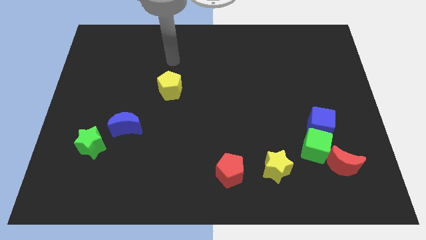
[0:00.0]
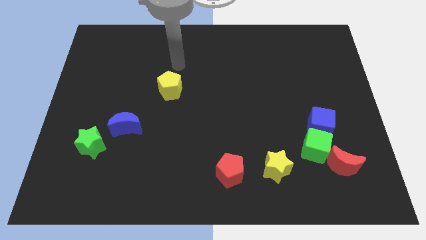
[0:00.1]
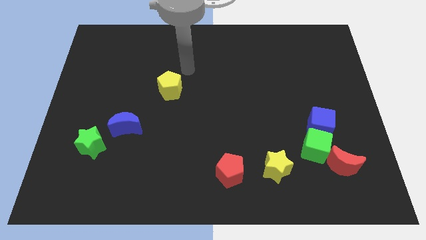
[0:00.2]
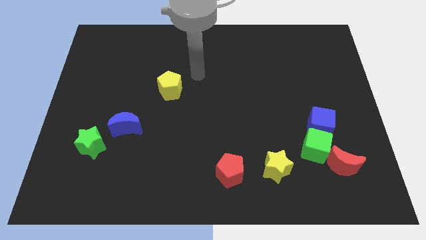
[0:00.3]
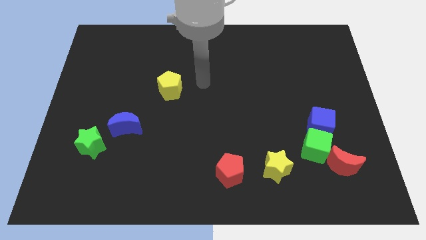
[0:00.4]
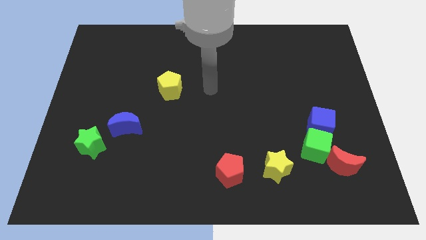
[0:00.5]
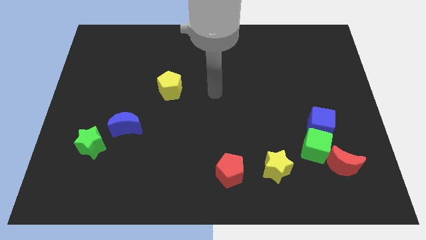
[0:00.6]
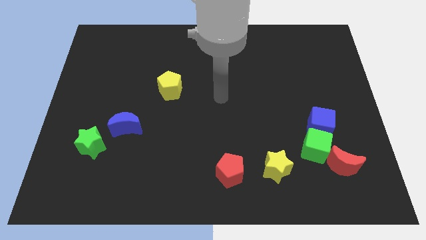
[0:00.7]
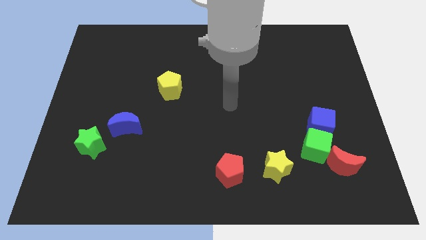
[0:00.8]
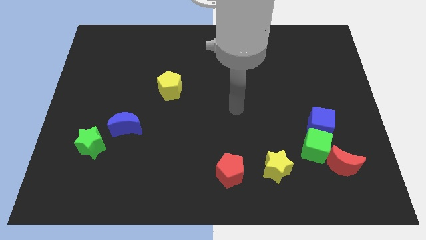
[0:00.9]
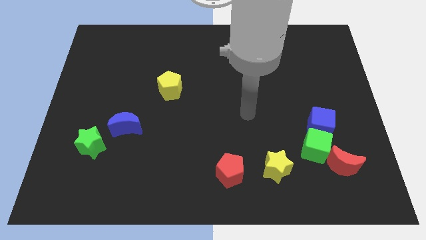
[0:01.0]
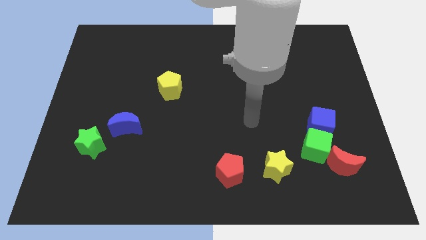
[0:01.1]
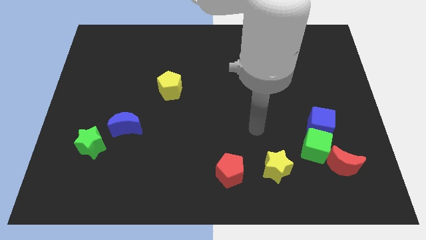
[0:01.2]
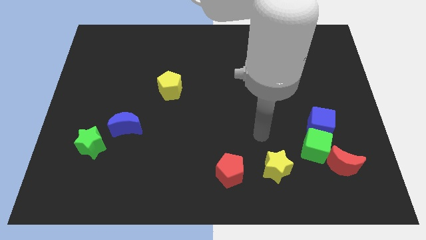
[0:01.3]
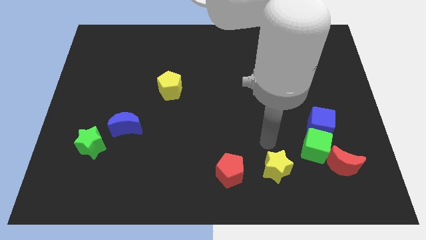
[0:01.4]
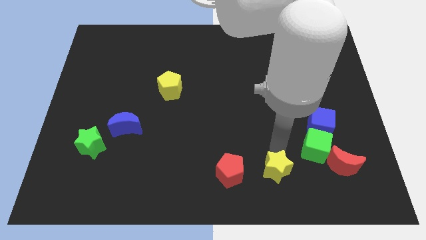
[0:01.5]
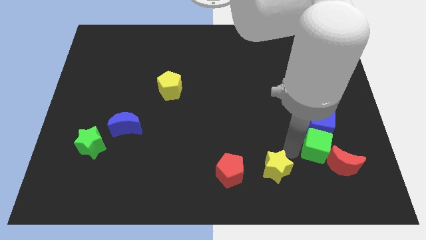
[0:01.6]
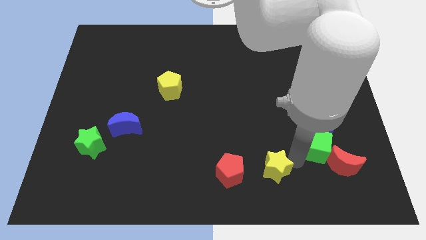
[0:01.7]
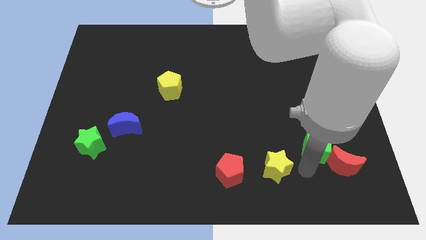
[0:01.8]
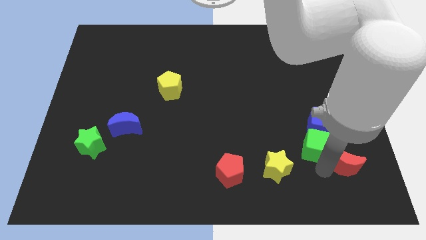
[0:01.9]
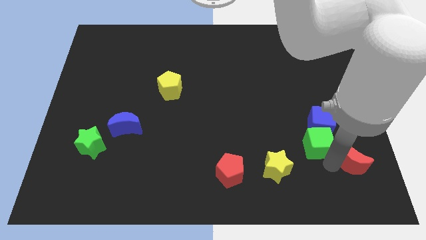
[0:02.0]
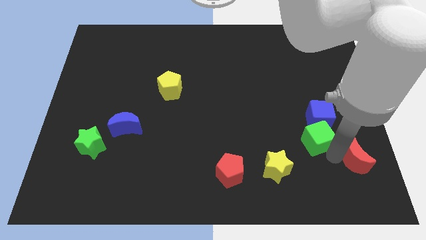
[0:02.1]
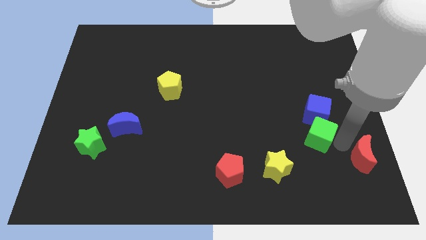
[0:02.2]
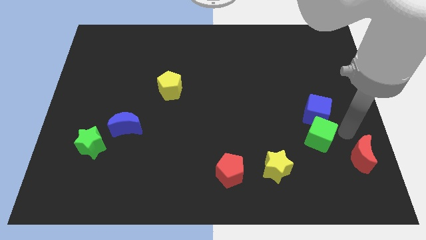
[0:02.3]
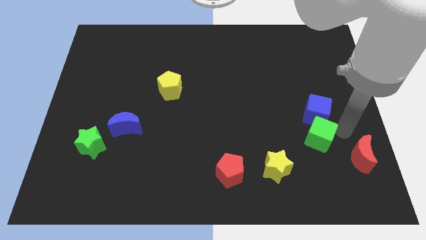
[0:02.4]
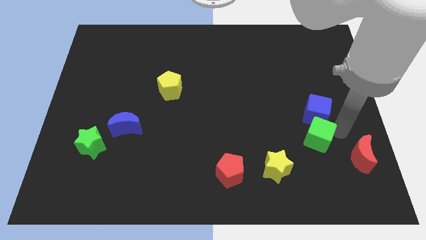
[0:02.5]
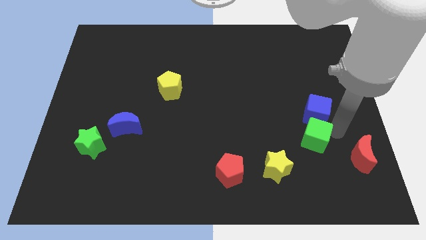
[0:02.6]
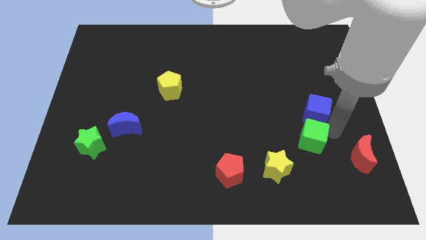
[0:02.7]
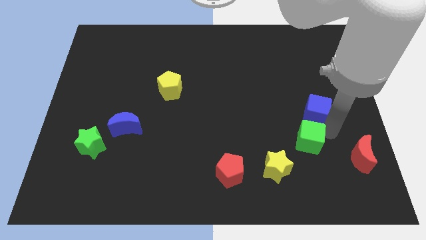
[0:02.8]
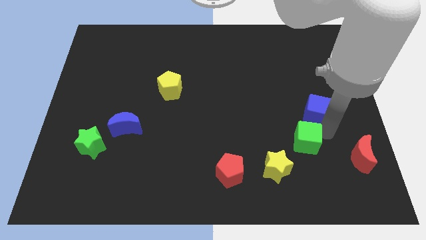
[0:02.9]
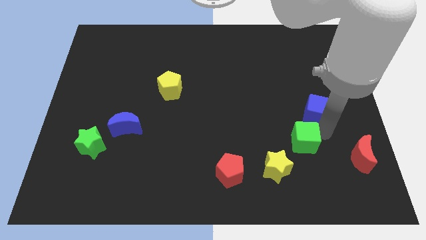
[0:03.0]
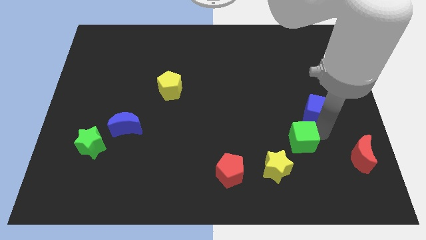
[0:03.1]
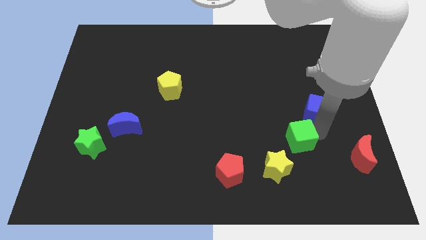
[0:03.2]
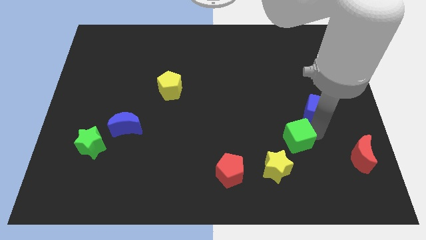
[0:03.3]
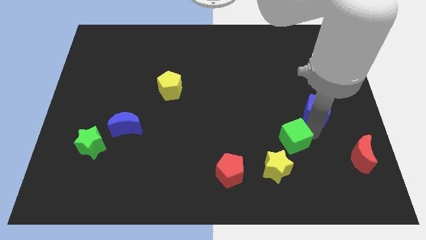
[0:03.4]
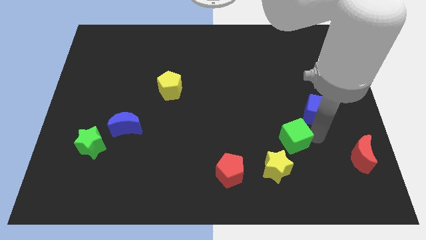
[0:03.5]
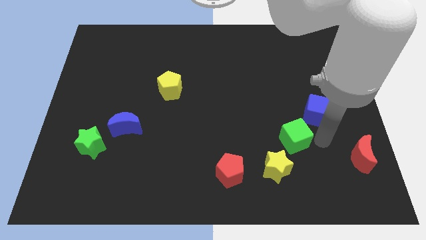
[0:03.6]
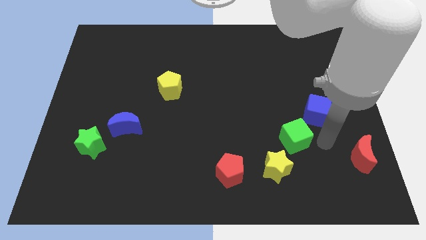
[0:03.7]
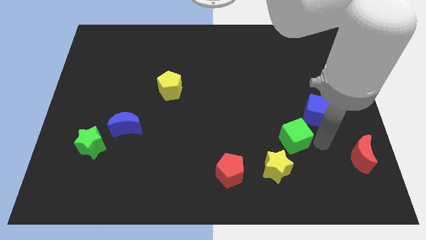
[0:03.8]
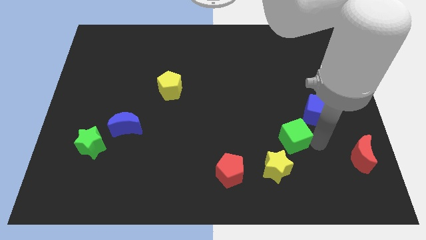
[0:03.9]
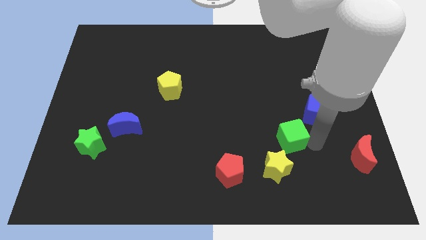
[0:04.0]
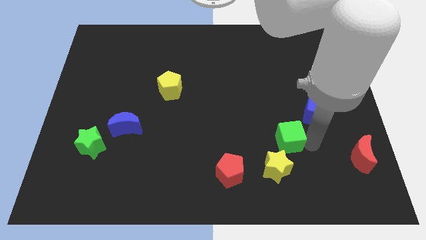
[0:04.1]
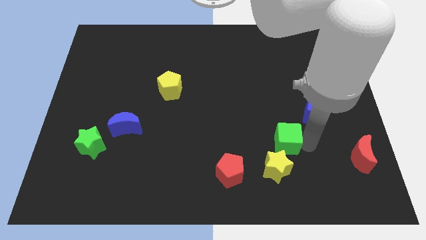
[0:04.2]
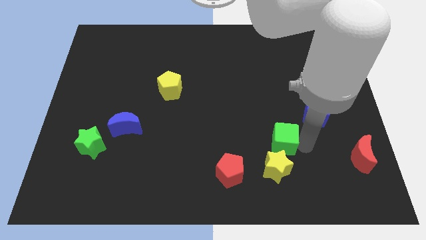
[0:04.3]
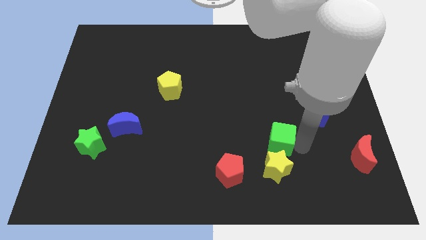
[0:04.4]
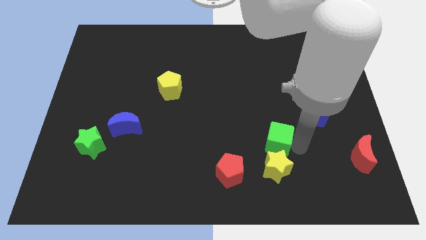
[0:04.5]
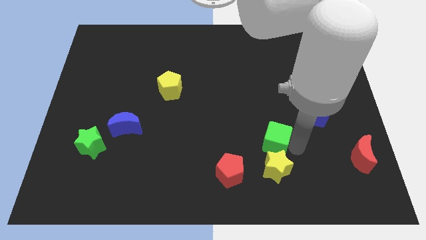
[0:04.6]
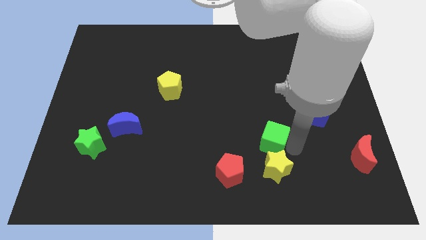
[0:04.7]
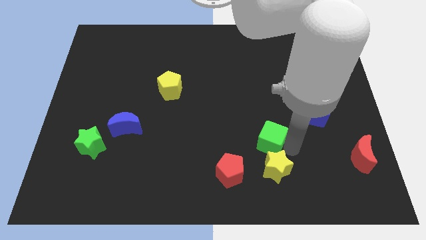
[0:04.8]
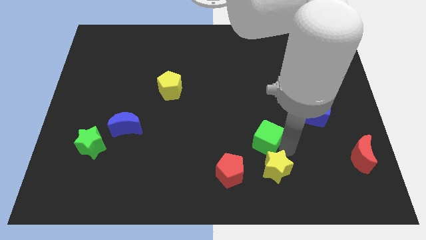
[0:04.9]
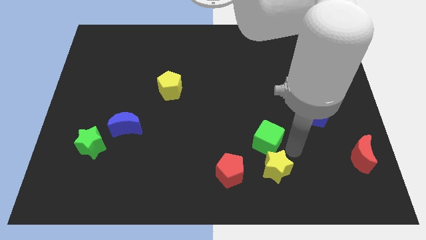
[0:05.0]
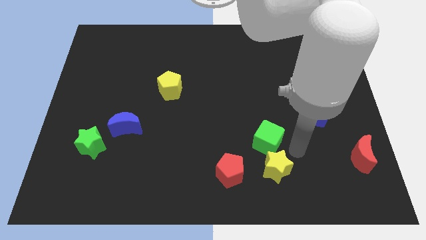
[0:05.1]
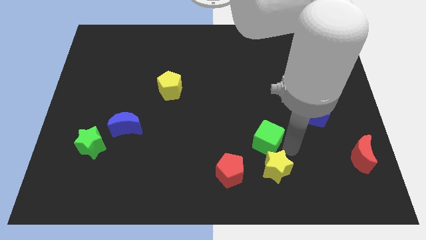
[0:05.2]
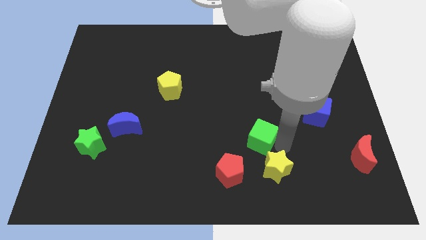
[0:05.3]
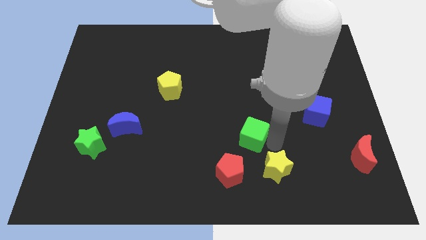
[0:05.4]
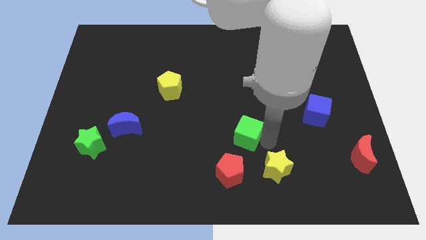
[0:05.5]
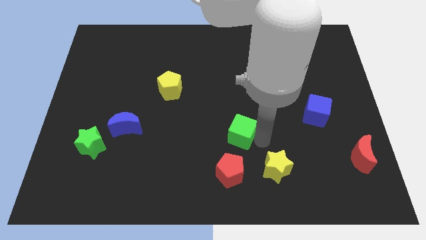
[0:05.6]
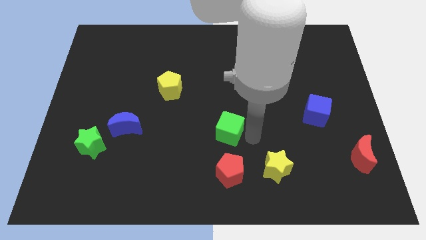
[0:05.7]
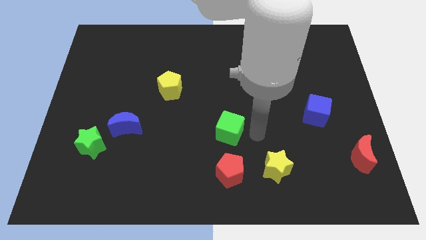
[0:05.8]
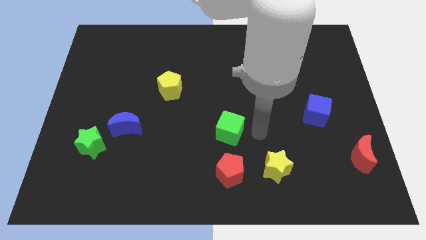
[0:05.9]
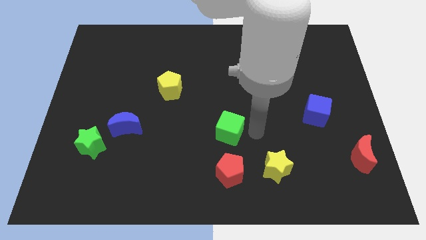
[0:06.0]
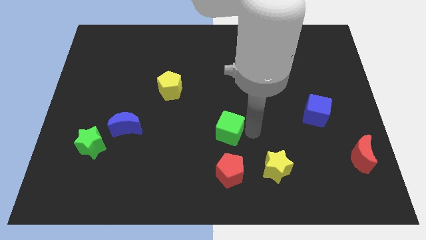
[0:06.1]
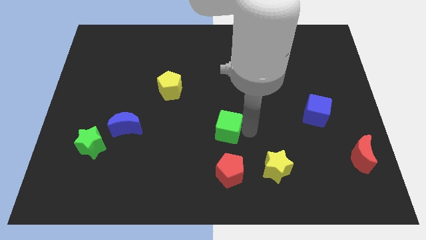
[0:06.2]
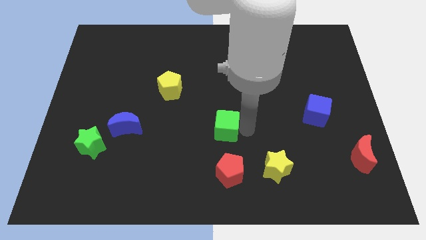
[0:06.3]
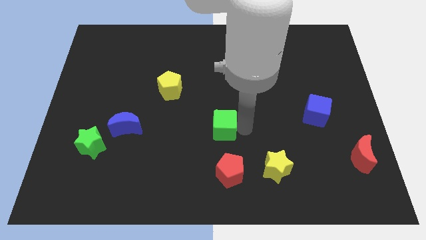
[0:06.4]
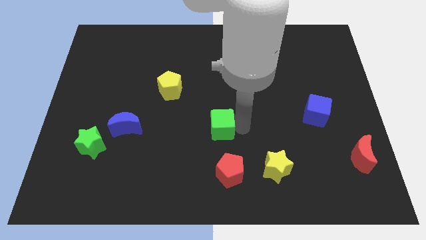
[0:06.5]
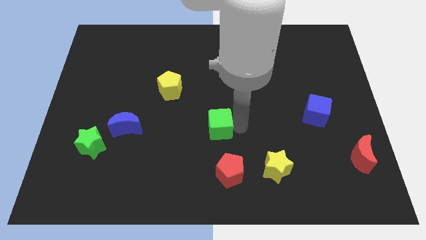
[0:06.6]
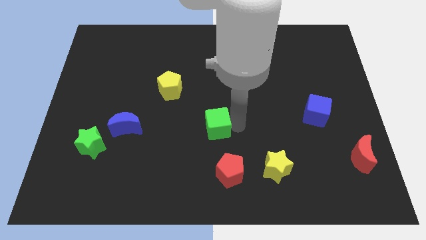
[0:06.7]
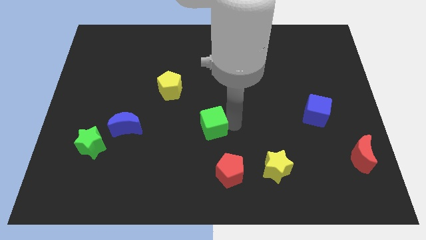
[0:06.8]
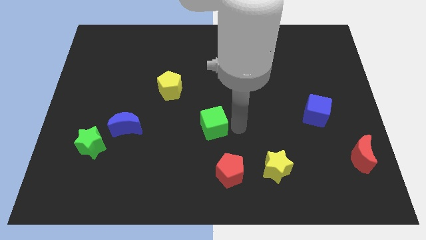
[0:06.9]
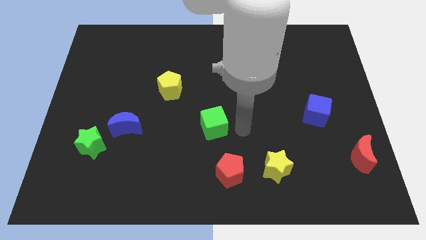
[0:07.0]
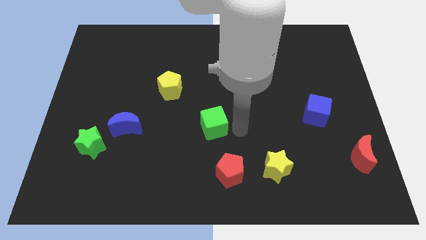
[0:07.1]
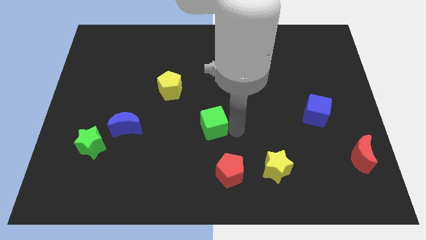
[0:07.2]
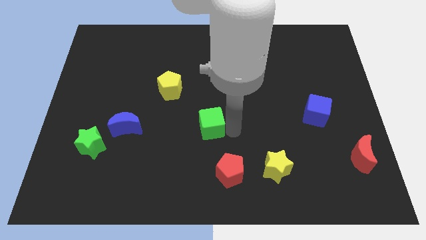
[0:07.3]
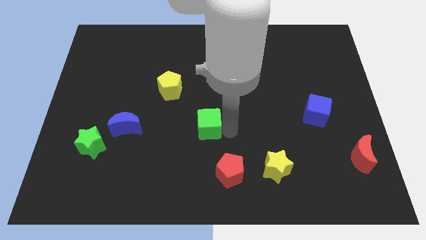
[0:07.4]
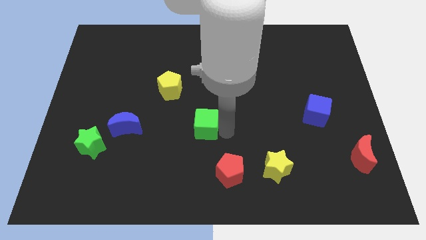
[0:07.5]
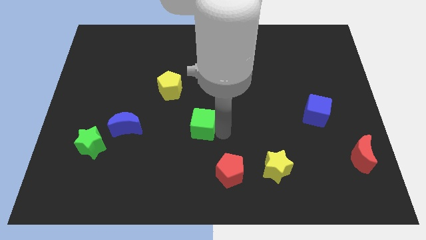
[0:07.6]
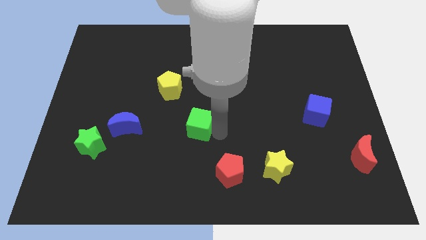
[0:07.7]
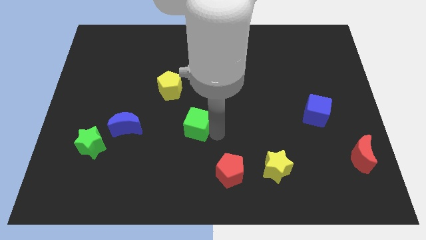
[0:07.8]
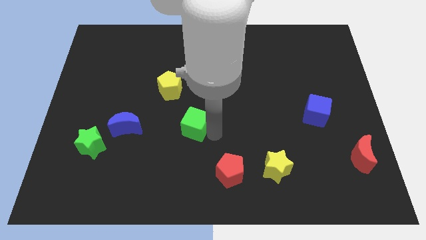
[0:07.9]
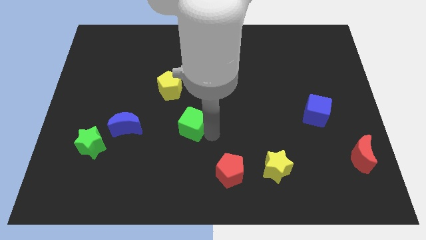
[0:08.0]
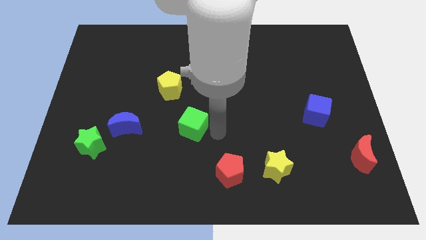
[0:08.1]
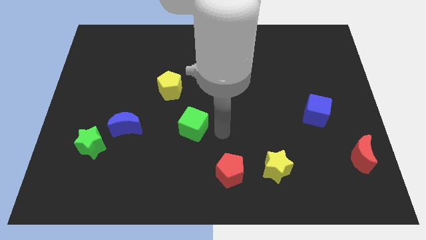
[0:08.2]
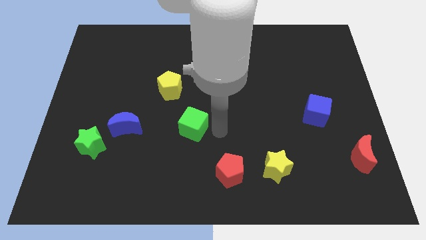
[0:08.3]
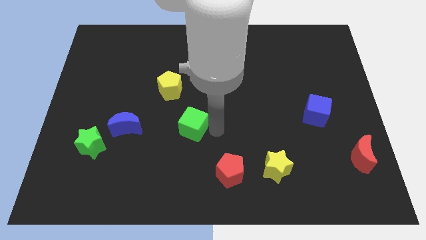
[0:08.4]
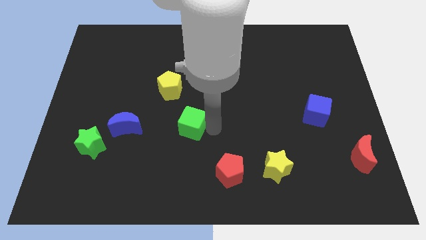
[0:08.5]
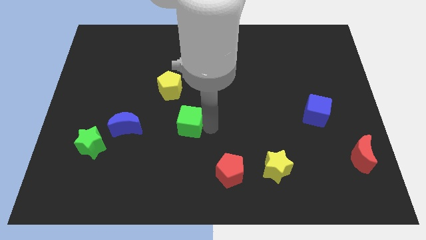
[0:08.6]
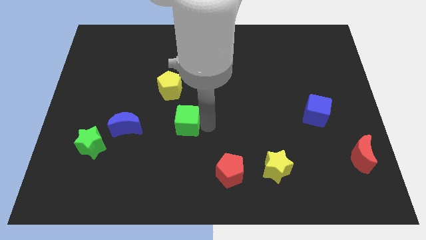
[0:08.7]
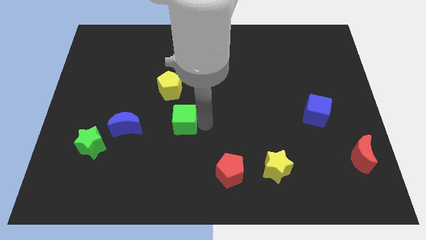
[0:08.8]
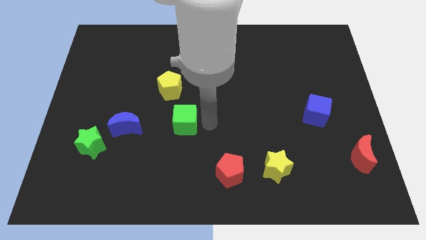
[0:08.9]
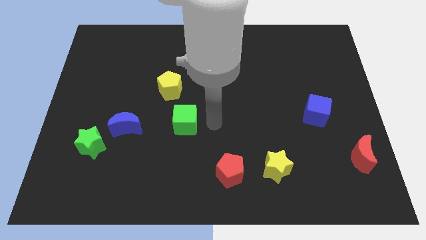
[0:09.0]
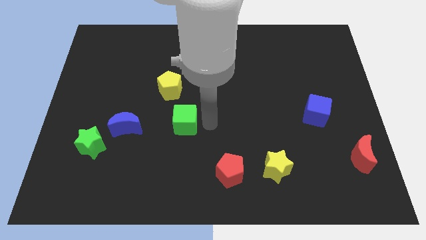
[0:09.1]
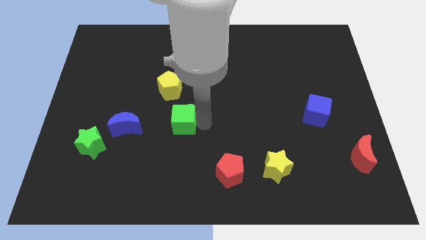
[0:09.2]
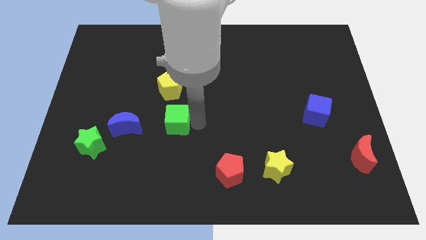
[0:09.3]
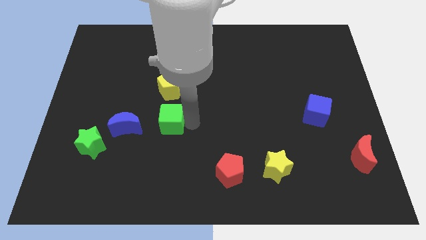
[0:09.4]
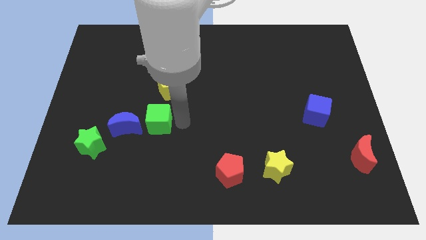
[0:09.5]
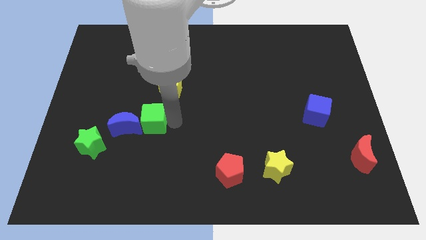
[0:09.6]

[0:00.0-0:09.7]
slide the green cube towards the blue moon
